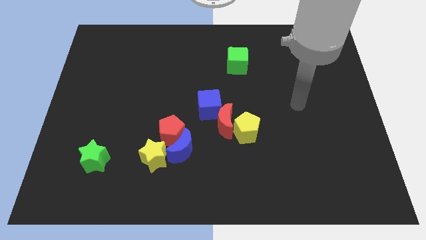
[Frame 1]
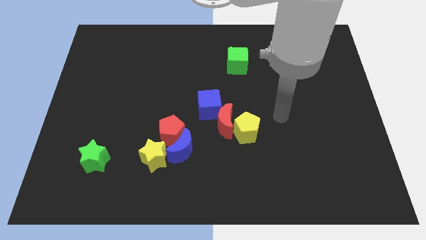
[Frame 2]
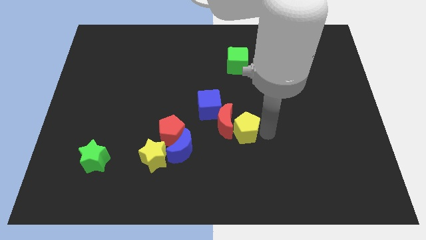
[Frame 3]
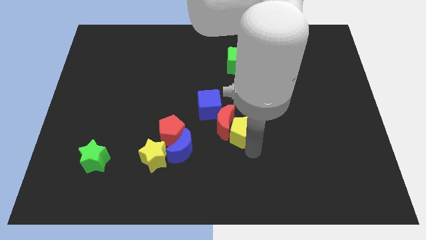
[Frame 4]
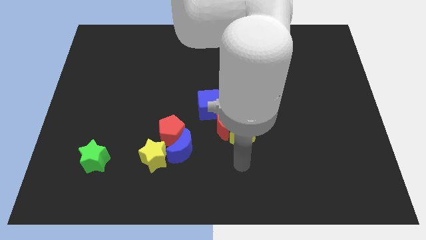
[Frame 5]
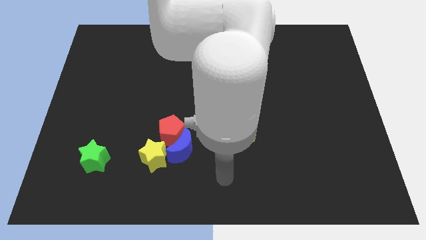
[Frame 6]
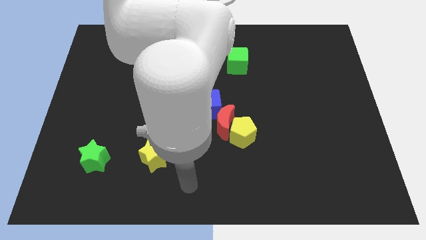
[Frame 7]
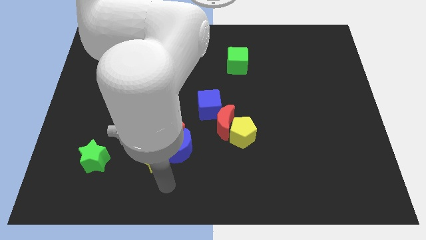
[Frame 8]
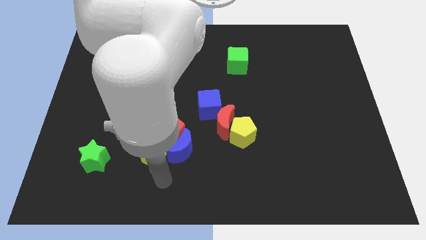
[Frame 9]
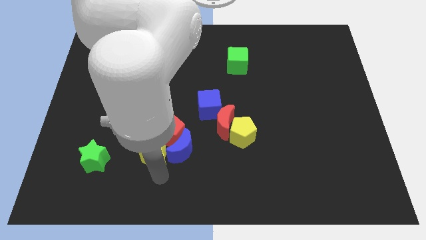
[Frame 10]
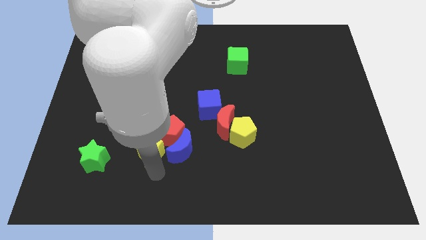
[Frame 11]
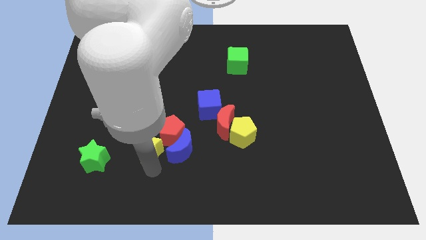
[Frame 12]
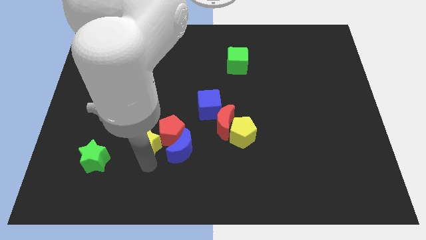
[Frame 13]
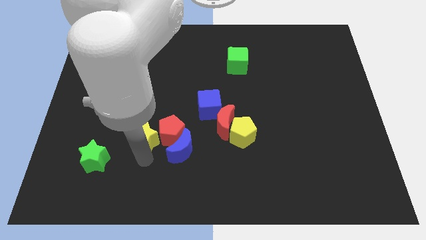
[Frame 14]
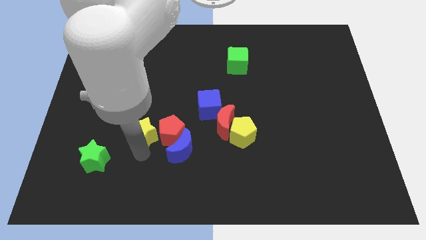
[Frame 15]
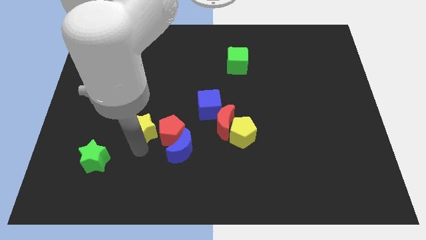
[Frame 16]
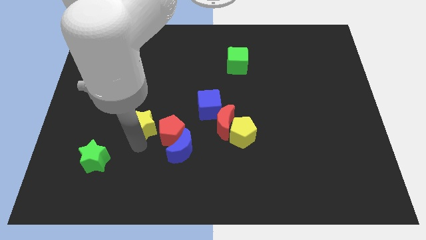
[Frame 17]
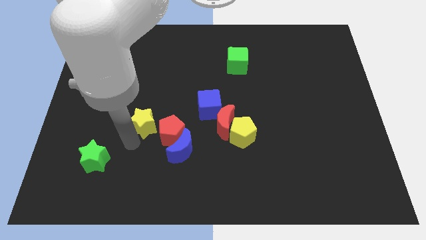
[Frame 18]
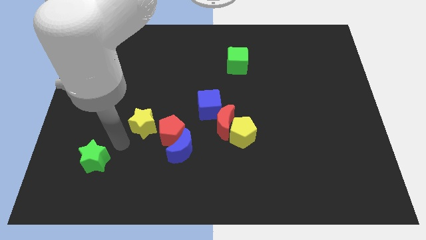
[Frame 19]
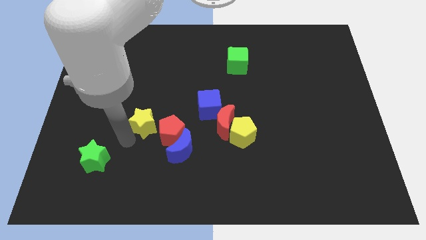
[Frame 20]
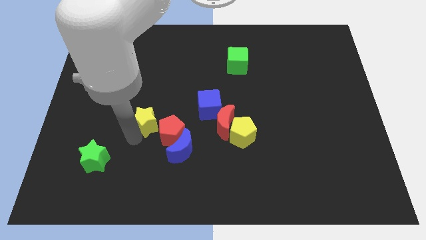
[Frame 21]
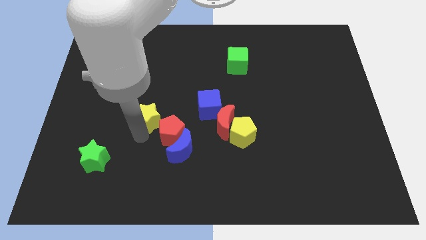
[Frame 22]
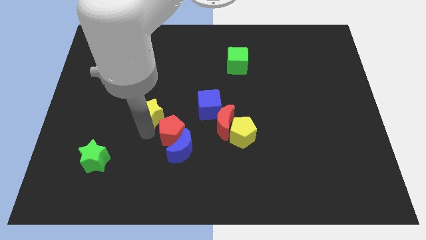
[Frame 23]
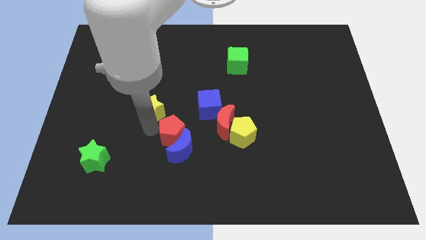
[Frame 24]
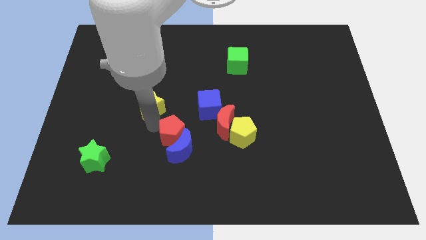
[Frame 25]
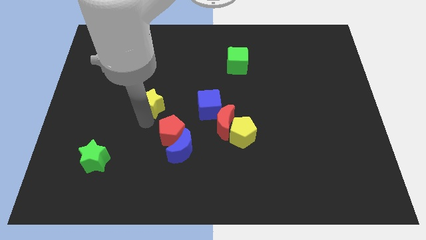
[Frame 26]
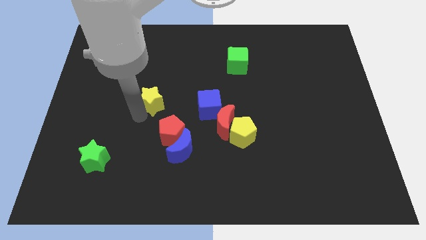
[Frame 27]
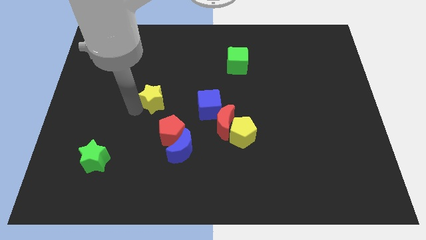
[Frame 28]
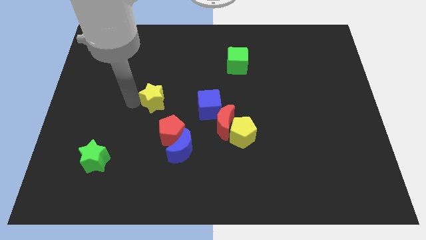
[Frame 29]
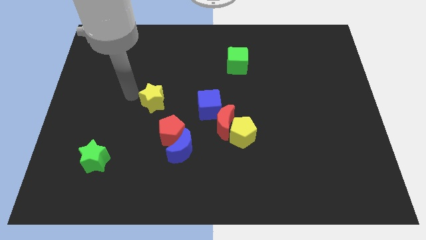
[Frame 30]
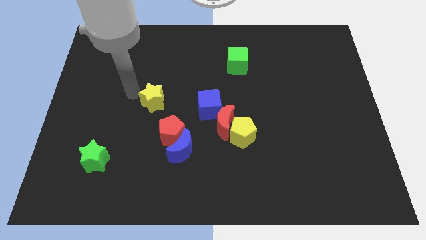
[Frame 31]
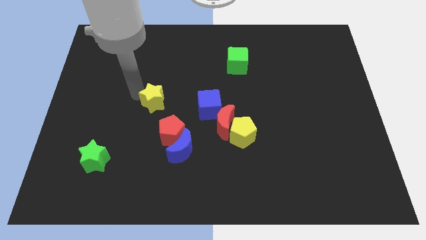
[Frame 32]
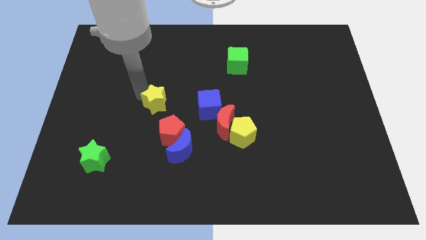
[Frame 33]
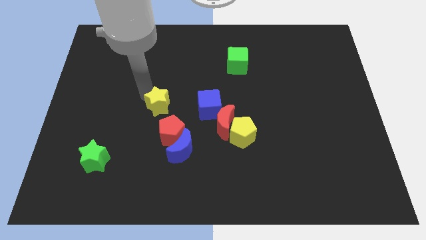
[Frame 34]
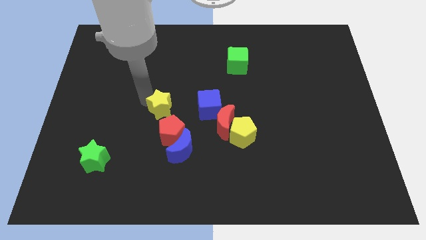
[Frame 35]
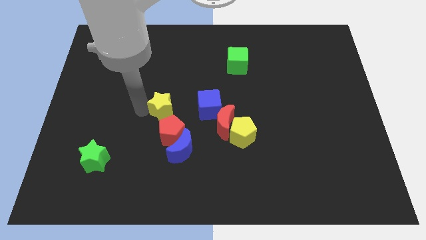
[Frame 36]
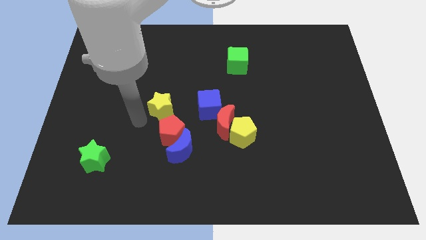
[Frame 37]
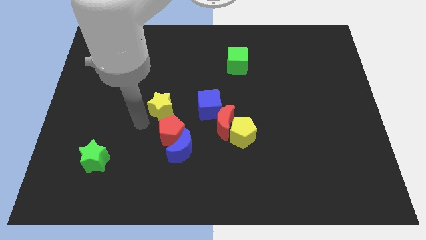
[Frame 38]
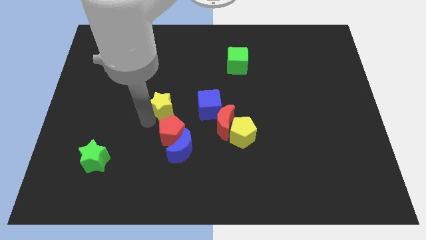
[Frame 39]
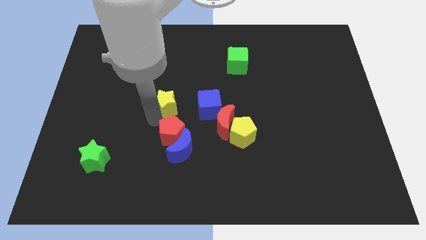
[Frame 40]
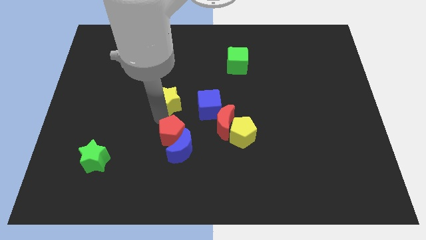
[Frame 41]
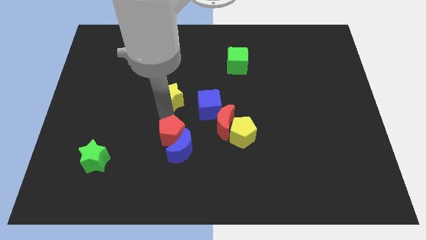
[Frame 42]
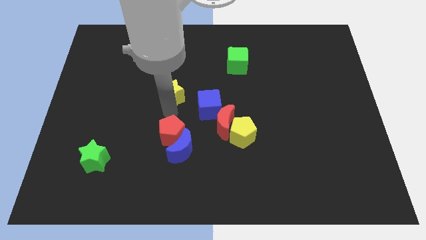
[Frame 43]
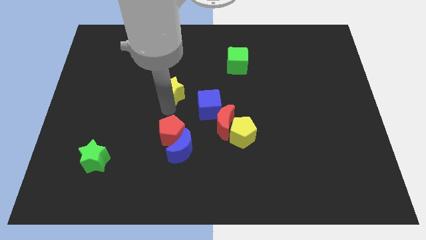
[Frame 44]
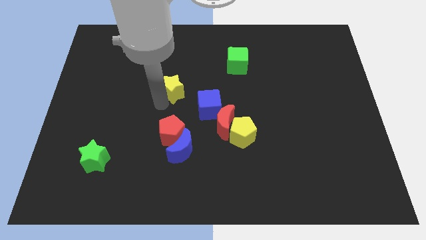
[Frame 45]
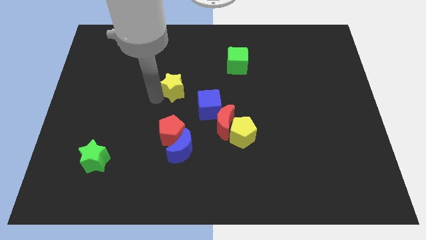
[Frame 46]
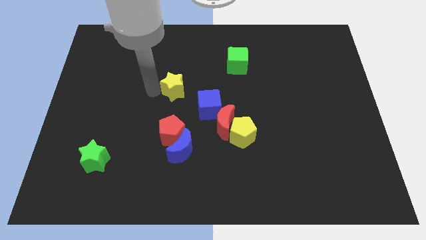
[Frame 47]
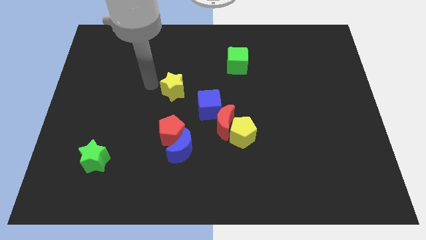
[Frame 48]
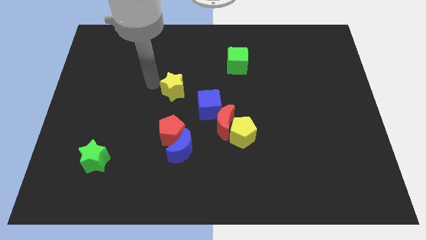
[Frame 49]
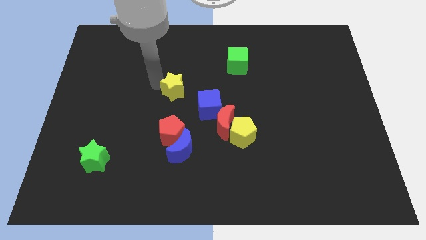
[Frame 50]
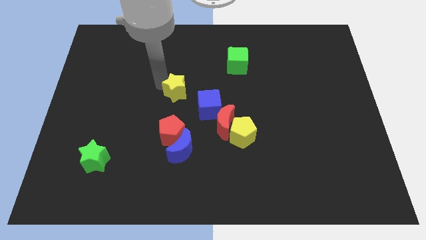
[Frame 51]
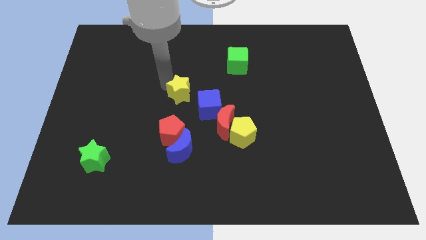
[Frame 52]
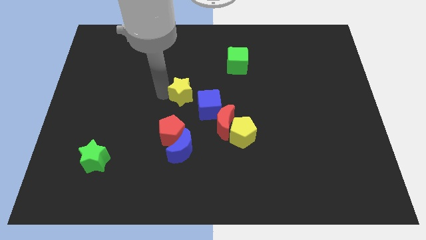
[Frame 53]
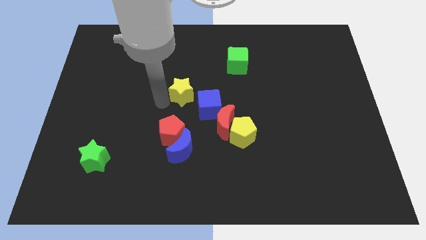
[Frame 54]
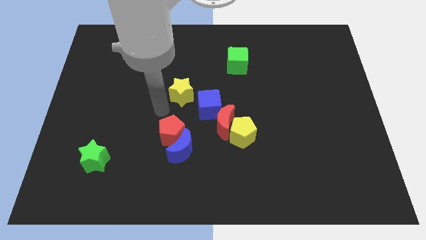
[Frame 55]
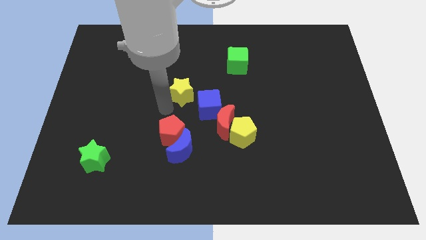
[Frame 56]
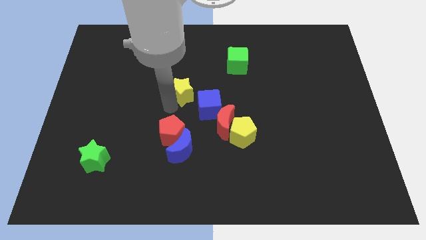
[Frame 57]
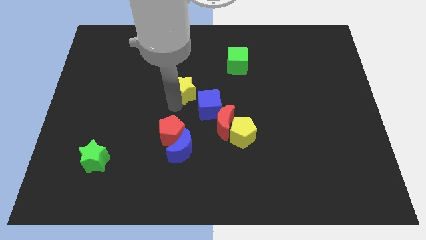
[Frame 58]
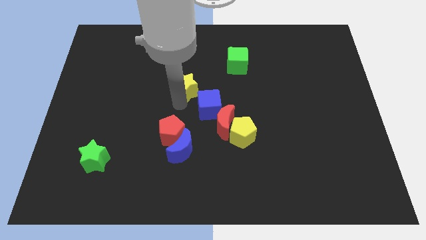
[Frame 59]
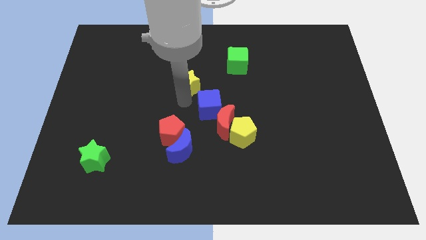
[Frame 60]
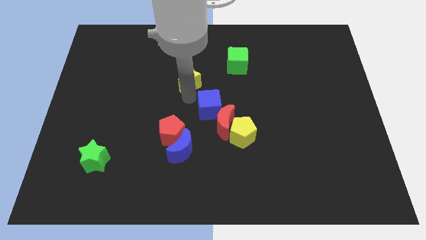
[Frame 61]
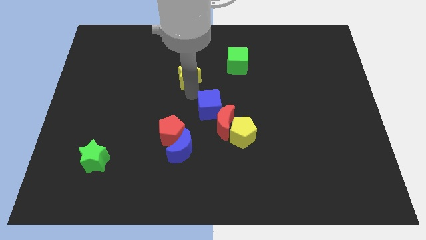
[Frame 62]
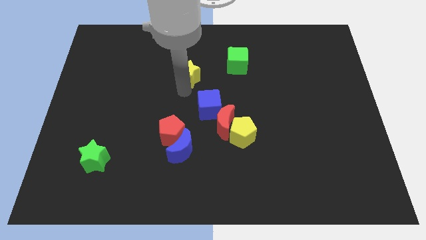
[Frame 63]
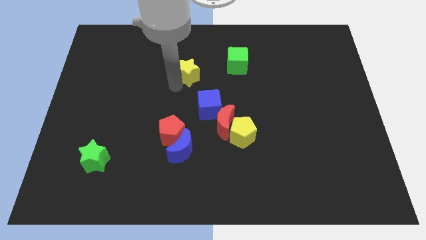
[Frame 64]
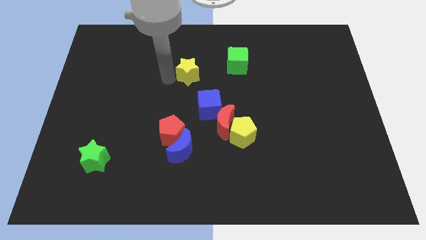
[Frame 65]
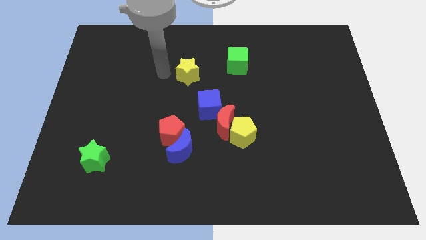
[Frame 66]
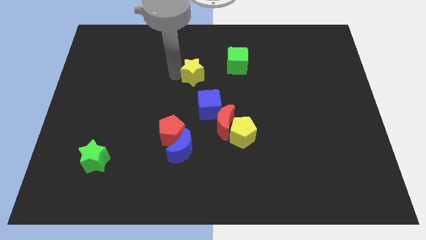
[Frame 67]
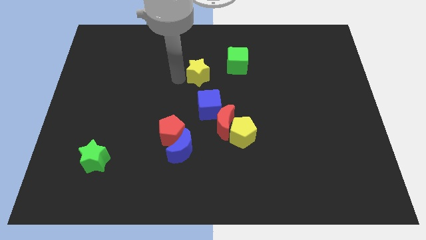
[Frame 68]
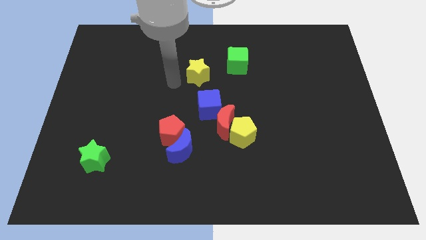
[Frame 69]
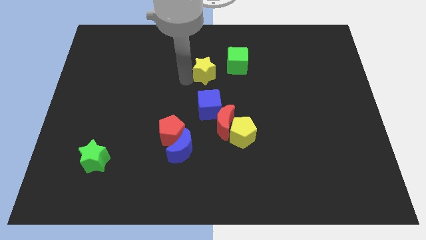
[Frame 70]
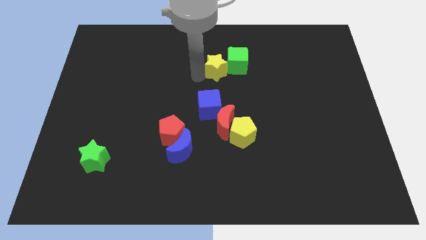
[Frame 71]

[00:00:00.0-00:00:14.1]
move the yellow star close to the green cube
